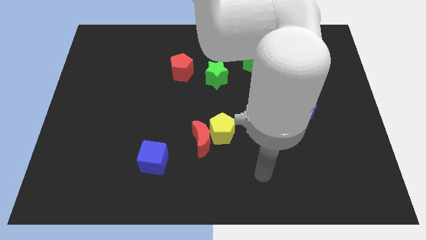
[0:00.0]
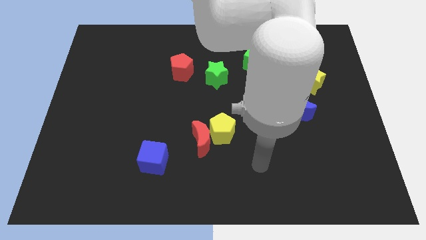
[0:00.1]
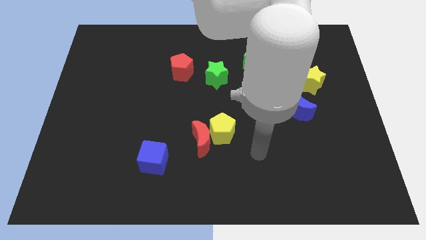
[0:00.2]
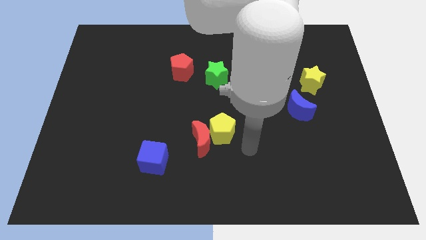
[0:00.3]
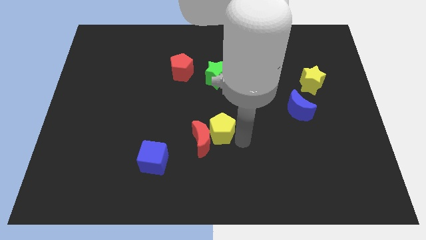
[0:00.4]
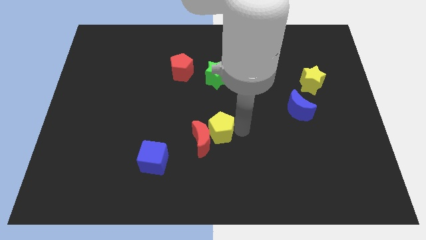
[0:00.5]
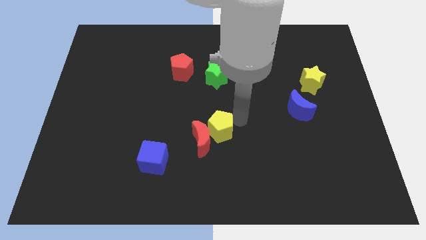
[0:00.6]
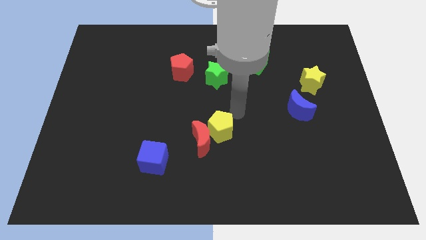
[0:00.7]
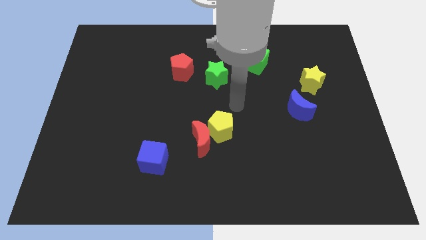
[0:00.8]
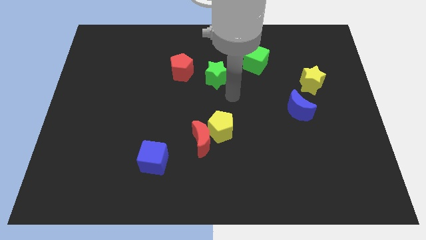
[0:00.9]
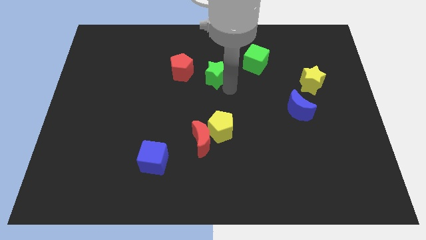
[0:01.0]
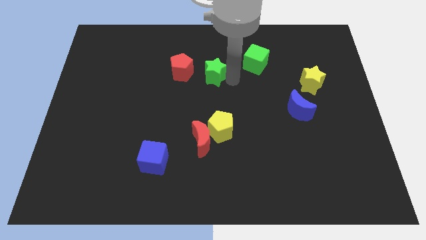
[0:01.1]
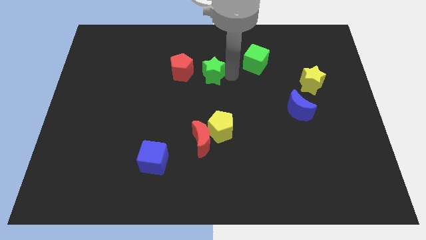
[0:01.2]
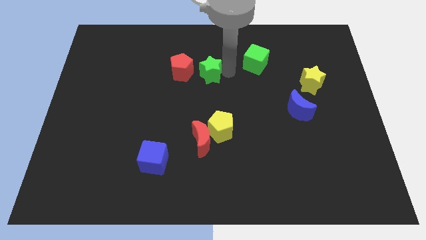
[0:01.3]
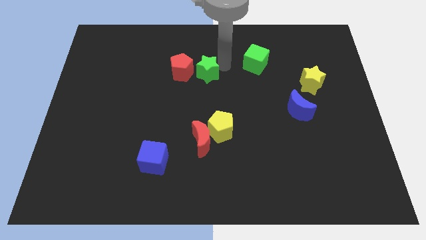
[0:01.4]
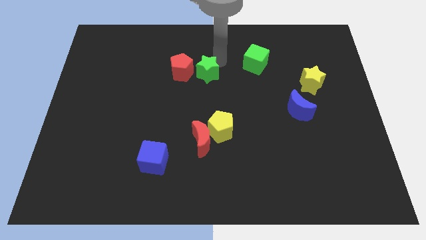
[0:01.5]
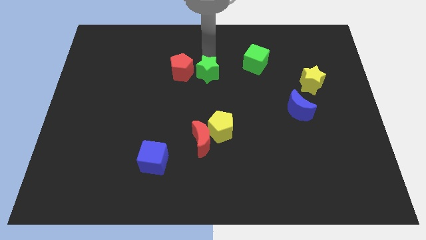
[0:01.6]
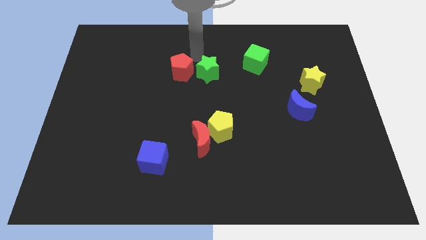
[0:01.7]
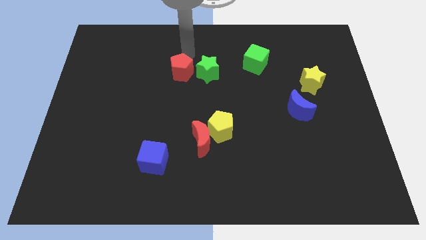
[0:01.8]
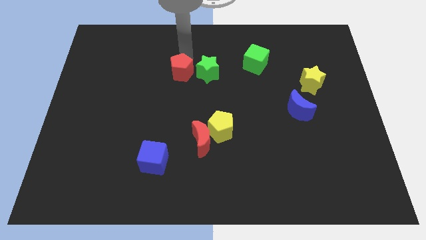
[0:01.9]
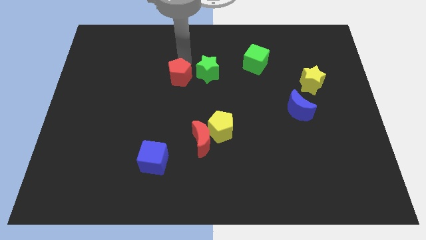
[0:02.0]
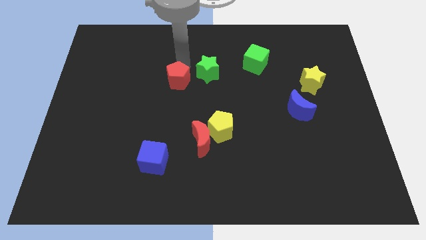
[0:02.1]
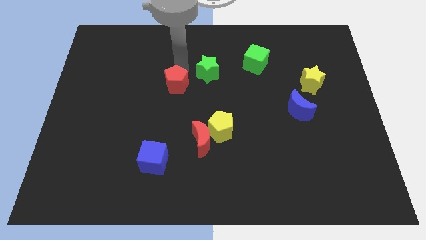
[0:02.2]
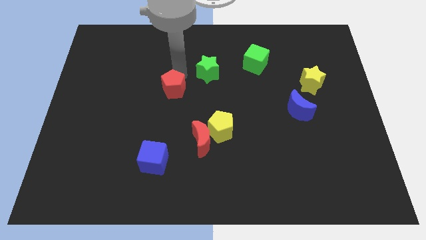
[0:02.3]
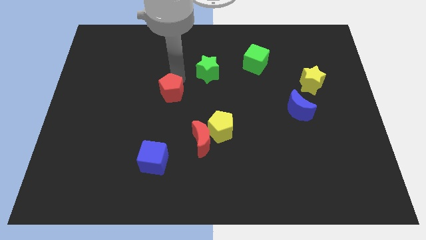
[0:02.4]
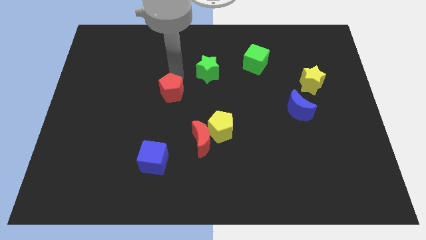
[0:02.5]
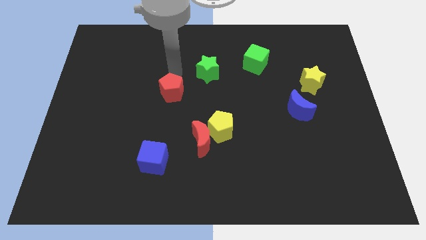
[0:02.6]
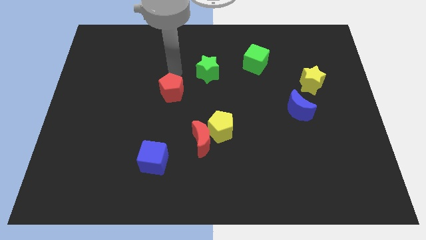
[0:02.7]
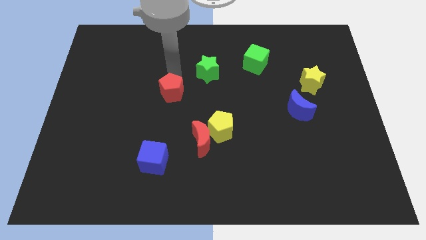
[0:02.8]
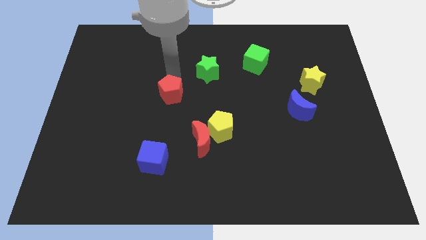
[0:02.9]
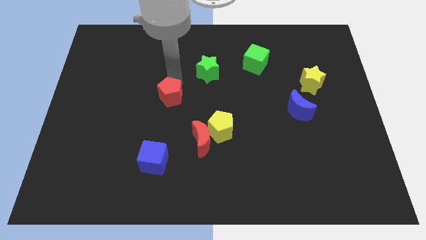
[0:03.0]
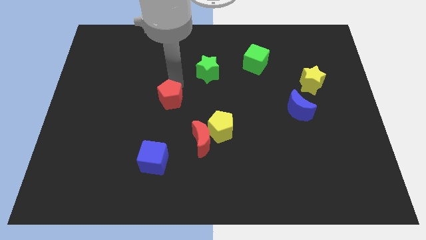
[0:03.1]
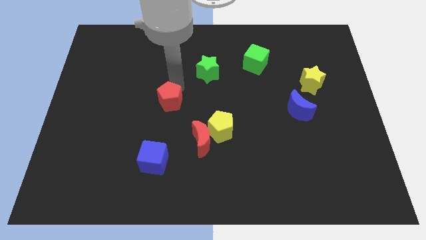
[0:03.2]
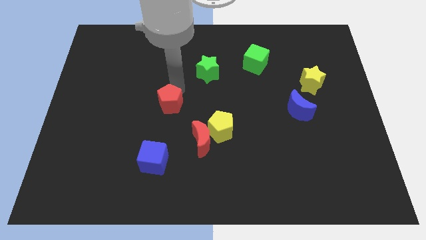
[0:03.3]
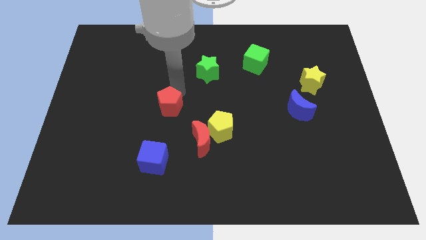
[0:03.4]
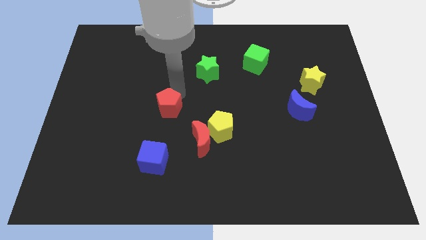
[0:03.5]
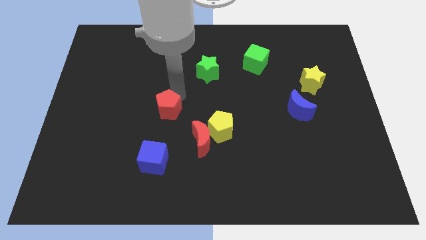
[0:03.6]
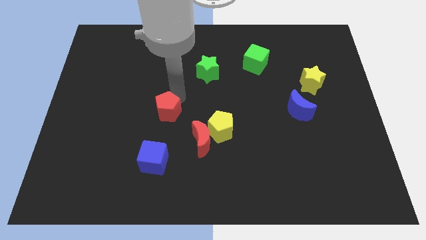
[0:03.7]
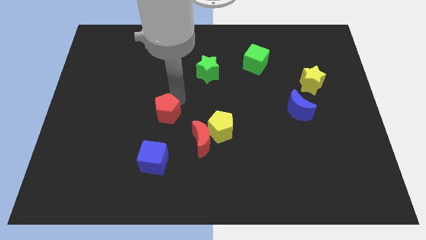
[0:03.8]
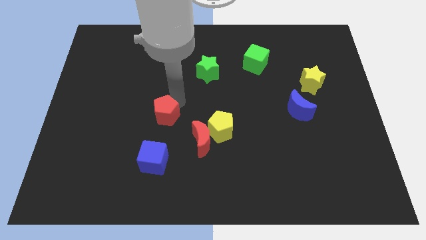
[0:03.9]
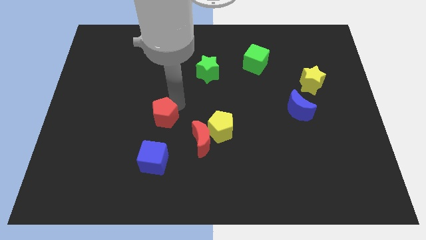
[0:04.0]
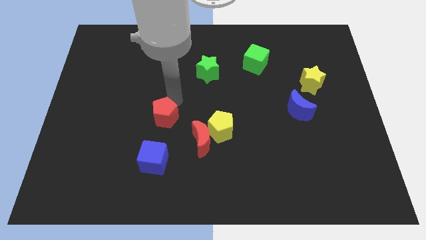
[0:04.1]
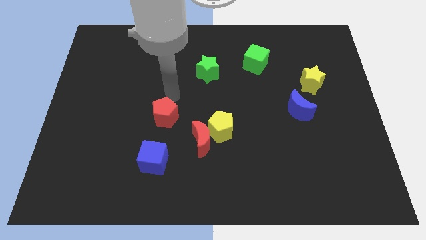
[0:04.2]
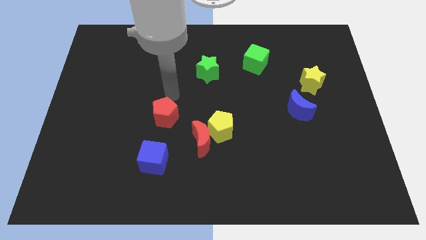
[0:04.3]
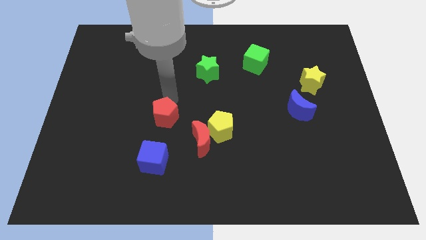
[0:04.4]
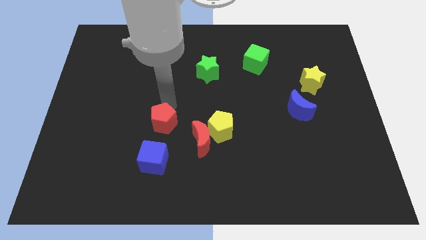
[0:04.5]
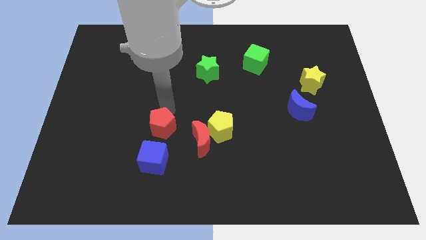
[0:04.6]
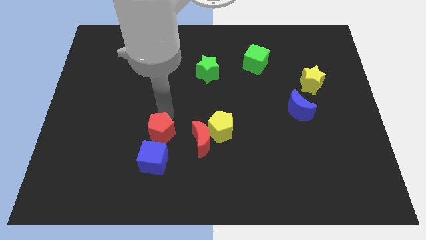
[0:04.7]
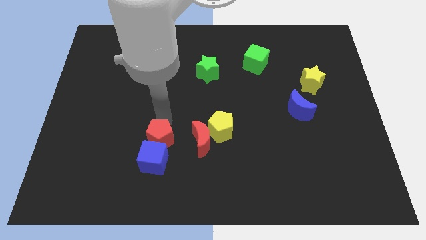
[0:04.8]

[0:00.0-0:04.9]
put the red pentagon towards the blue cube

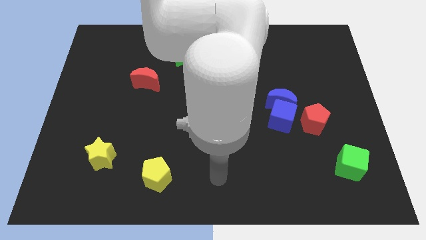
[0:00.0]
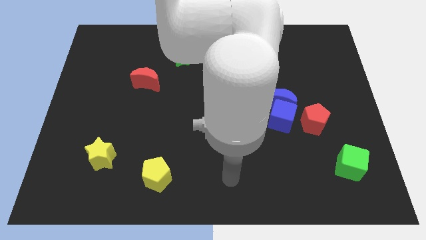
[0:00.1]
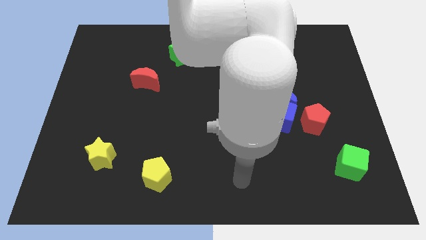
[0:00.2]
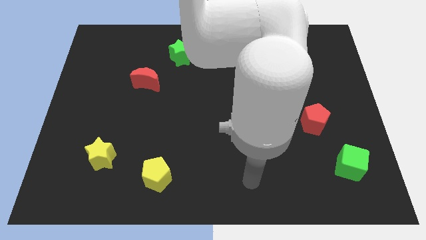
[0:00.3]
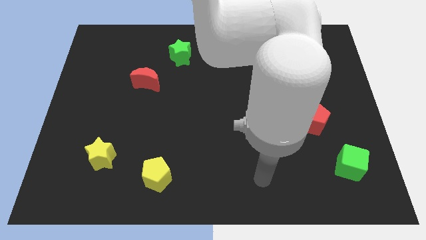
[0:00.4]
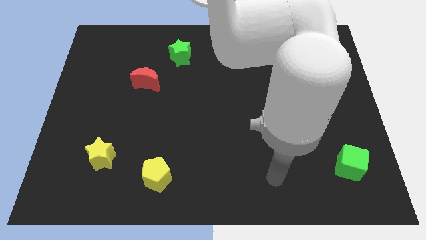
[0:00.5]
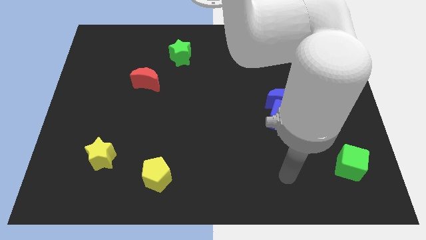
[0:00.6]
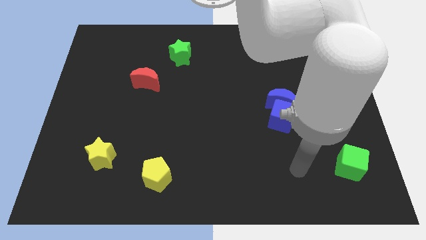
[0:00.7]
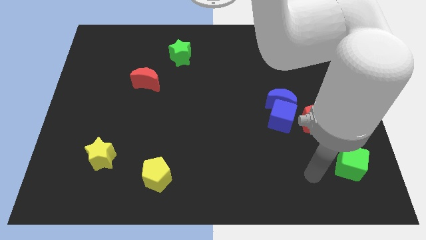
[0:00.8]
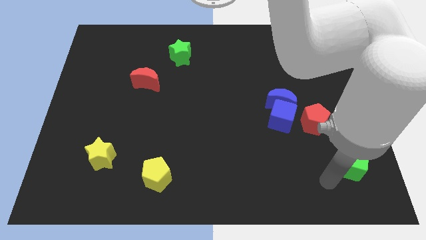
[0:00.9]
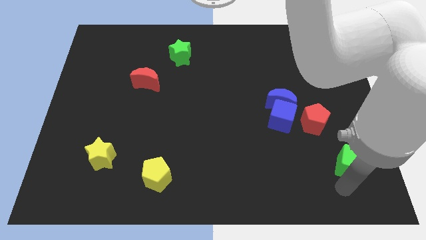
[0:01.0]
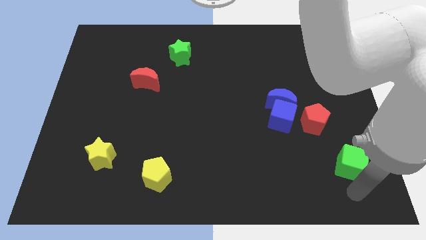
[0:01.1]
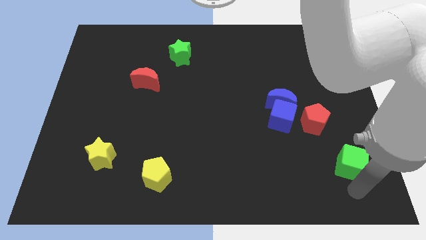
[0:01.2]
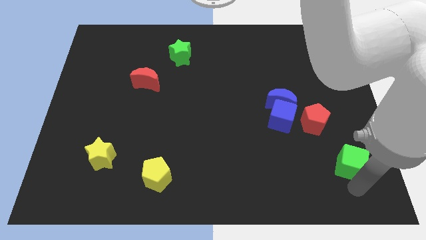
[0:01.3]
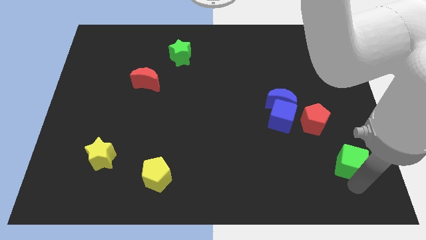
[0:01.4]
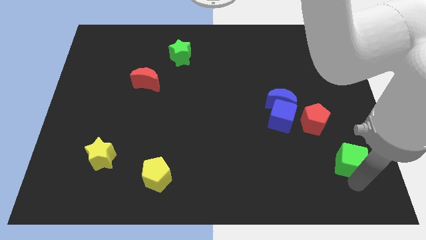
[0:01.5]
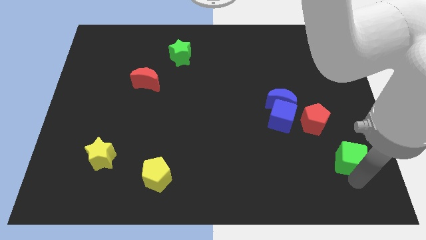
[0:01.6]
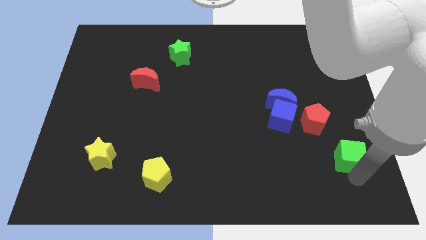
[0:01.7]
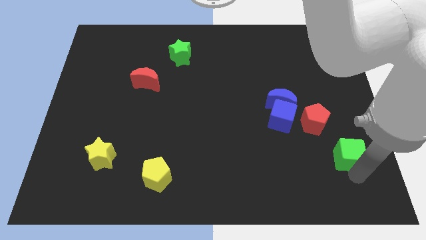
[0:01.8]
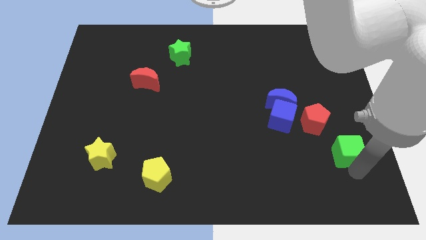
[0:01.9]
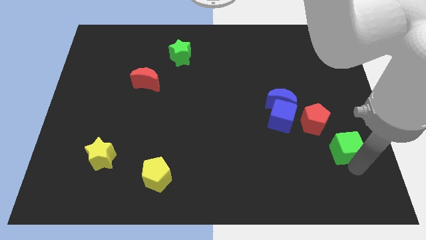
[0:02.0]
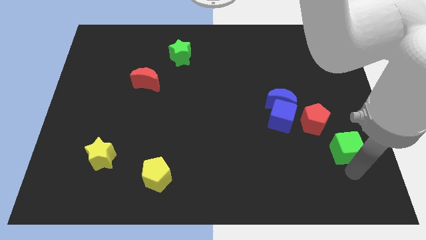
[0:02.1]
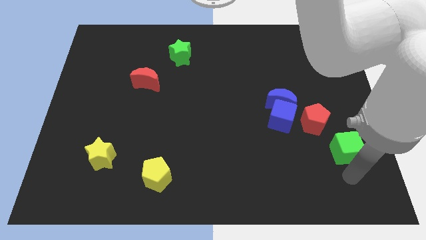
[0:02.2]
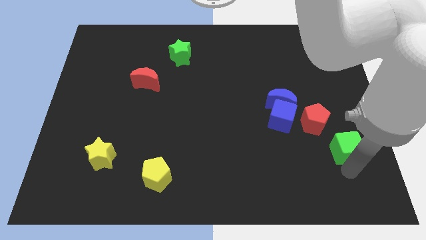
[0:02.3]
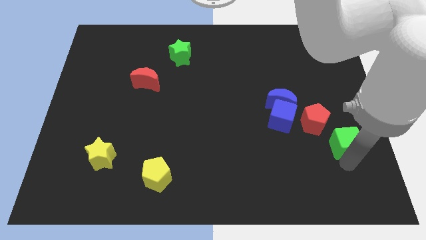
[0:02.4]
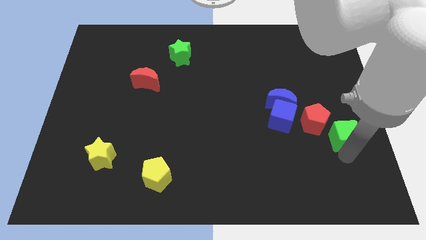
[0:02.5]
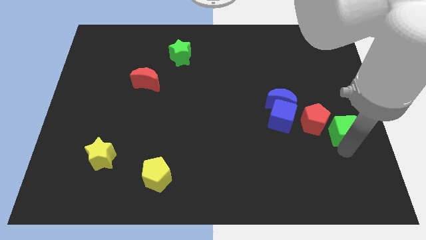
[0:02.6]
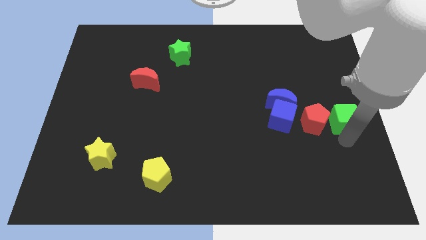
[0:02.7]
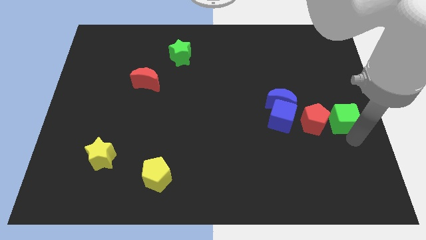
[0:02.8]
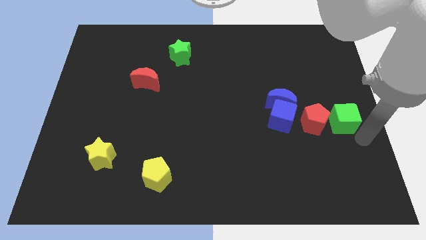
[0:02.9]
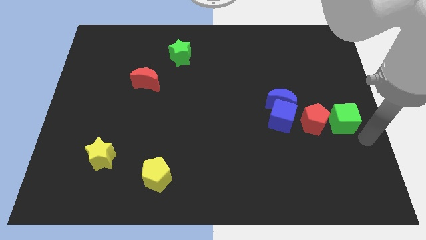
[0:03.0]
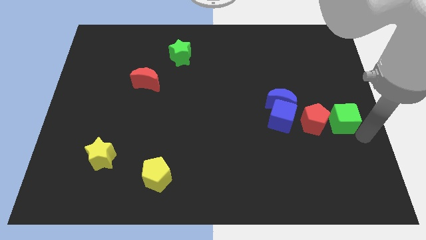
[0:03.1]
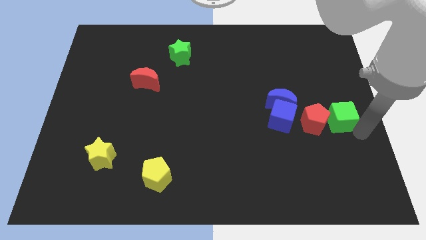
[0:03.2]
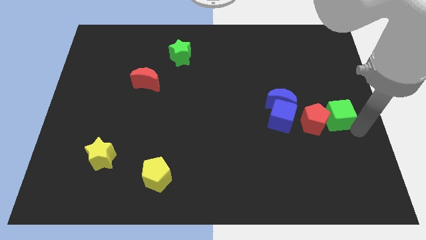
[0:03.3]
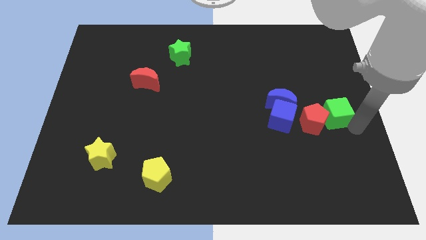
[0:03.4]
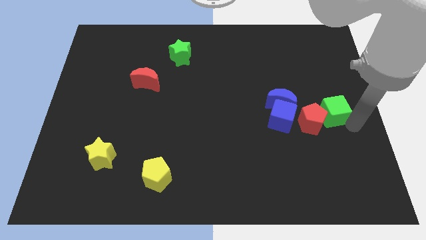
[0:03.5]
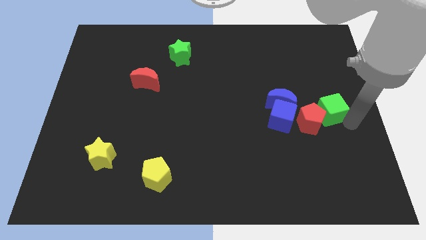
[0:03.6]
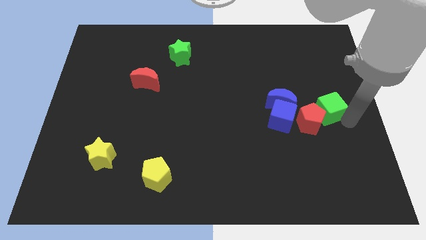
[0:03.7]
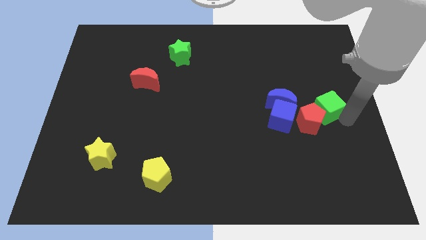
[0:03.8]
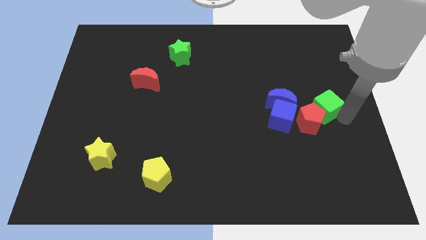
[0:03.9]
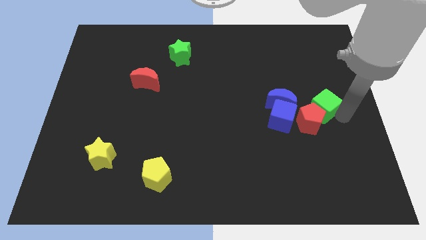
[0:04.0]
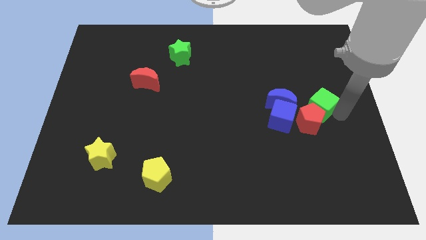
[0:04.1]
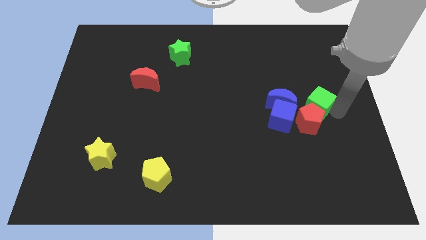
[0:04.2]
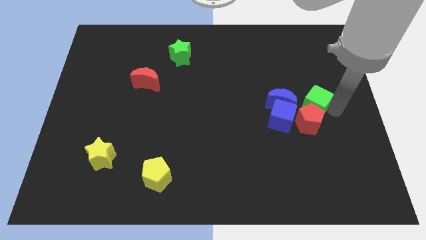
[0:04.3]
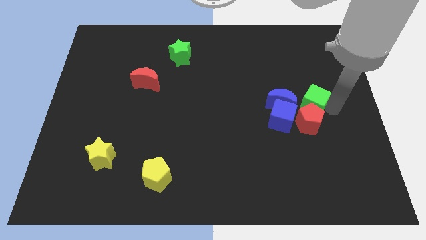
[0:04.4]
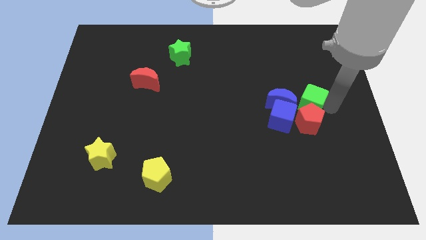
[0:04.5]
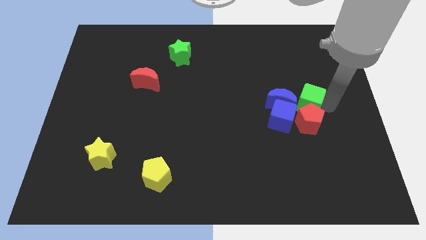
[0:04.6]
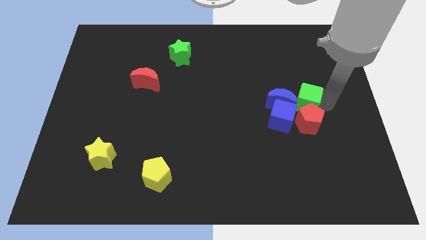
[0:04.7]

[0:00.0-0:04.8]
push the green cube towards the blue moon
